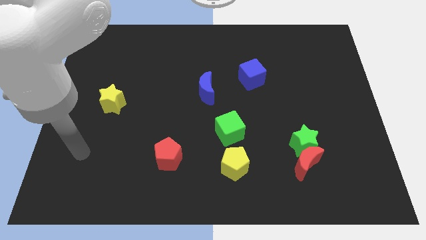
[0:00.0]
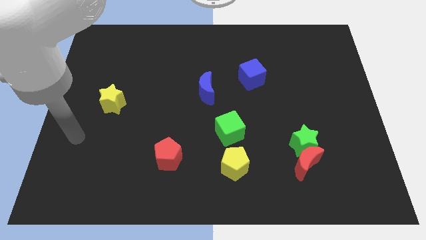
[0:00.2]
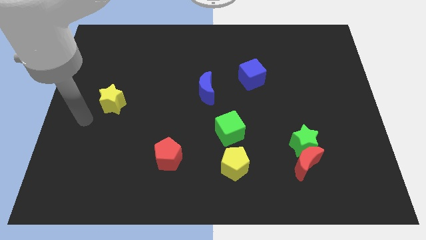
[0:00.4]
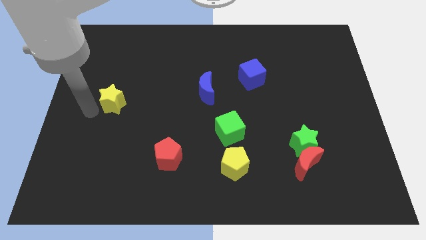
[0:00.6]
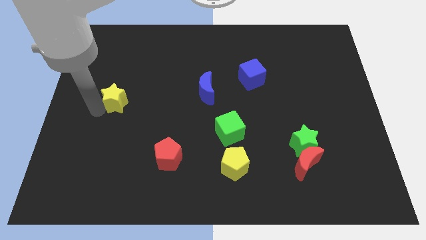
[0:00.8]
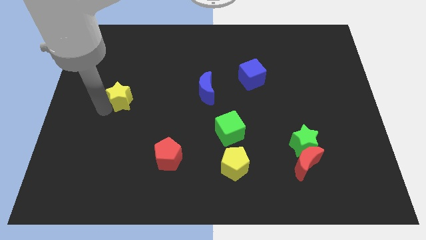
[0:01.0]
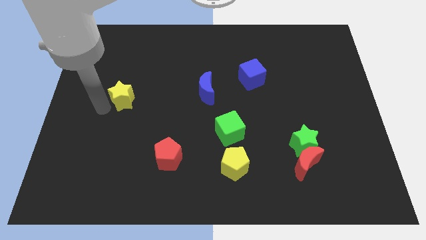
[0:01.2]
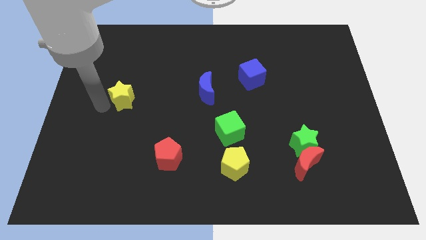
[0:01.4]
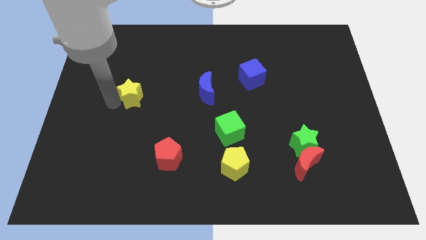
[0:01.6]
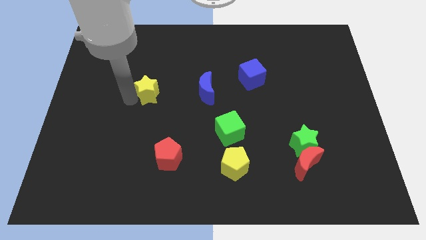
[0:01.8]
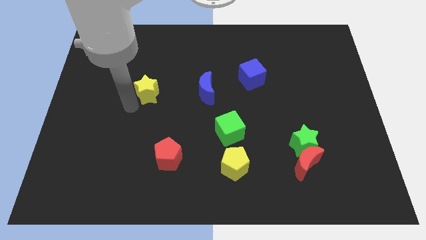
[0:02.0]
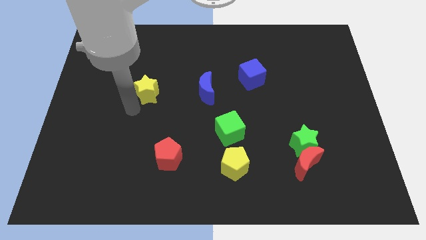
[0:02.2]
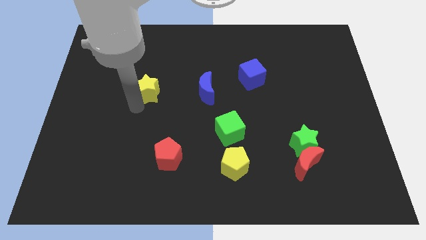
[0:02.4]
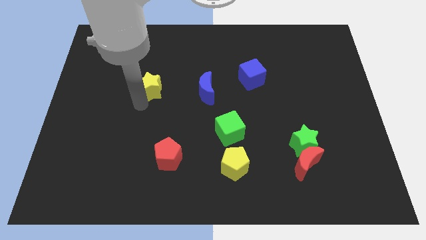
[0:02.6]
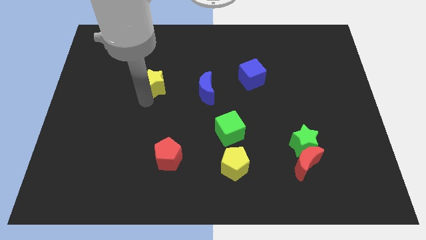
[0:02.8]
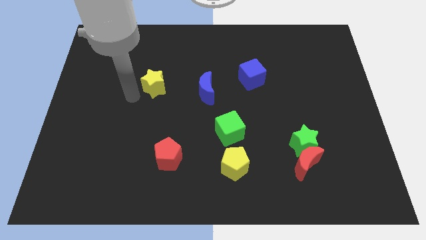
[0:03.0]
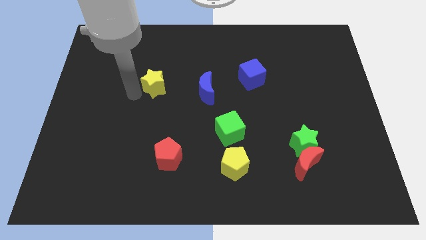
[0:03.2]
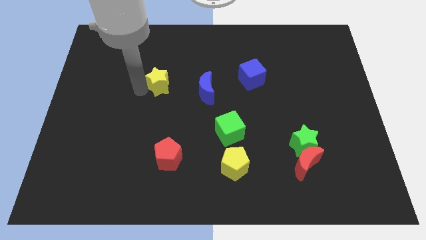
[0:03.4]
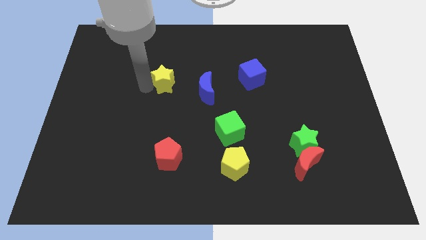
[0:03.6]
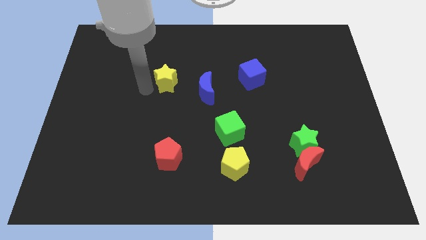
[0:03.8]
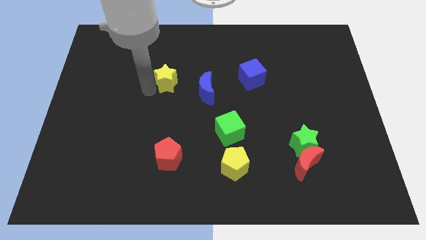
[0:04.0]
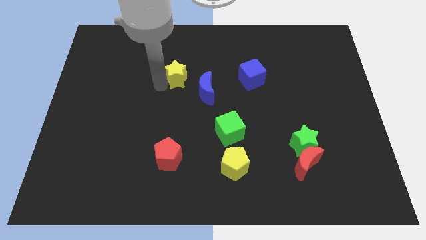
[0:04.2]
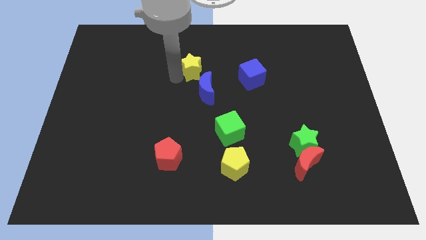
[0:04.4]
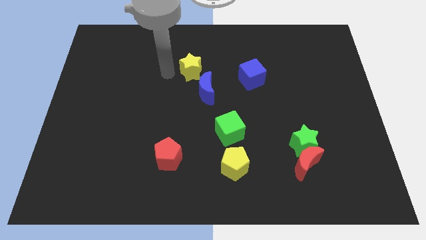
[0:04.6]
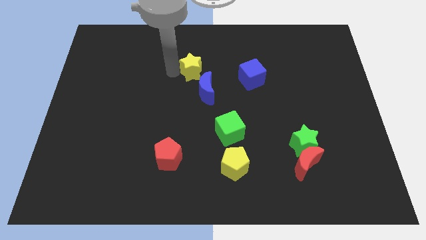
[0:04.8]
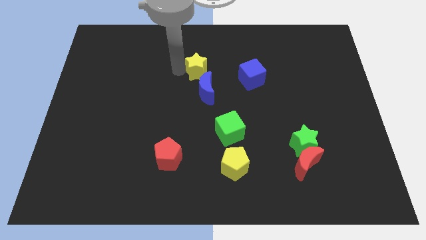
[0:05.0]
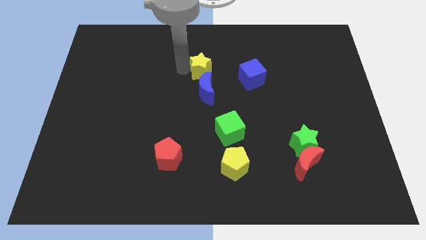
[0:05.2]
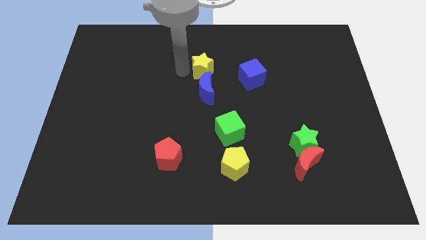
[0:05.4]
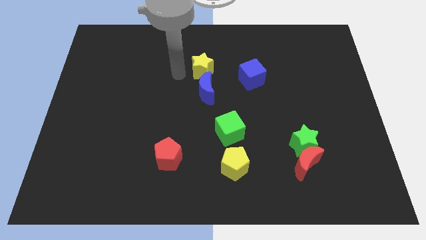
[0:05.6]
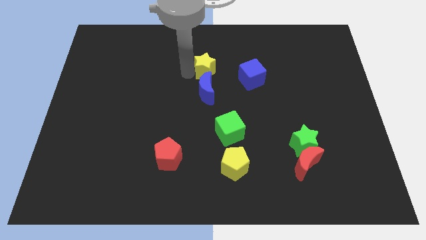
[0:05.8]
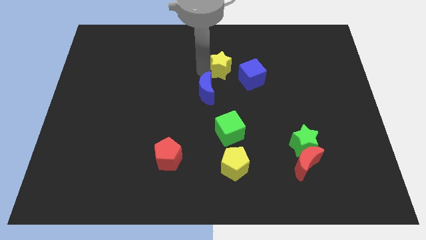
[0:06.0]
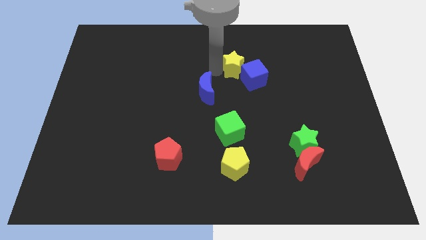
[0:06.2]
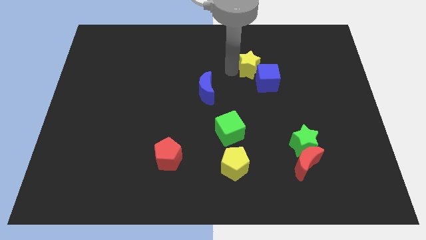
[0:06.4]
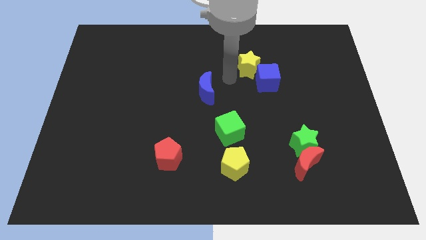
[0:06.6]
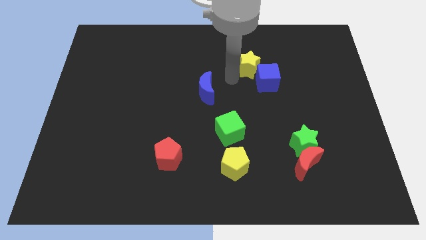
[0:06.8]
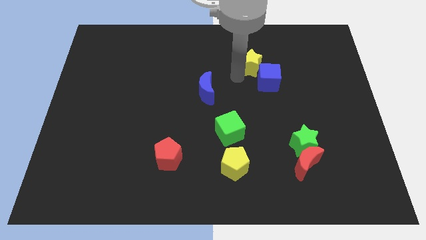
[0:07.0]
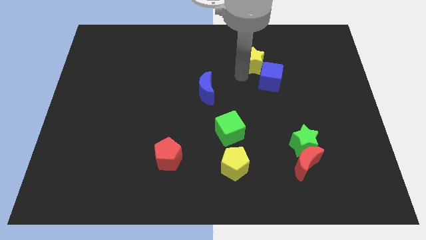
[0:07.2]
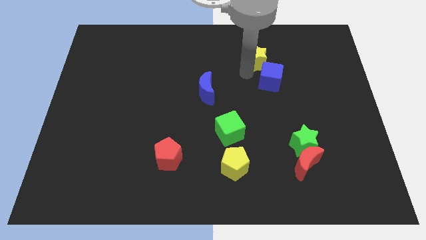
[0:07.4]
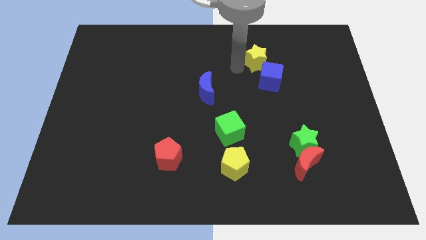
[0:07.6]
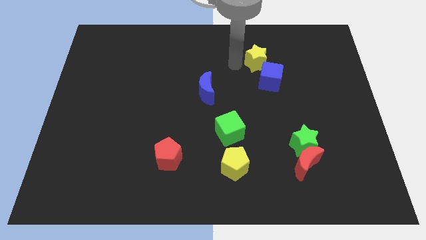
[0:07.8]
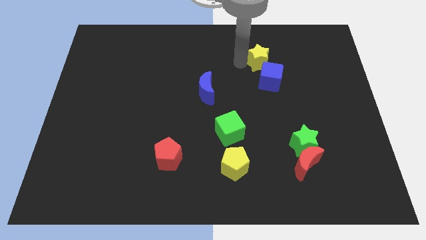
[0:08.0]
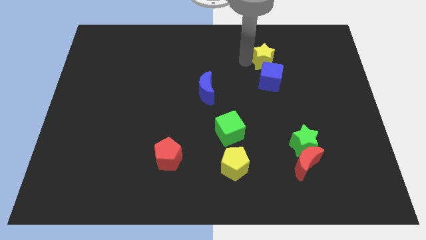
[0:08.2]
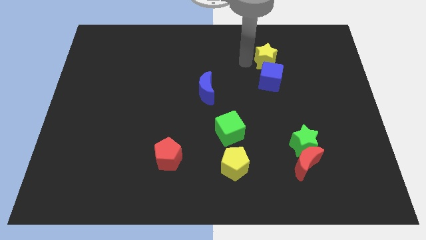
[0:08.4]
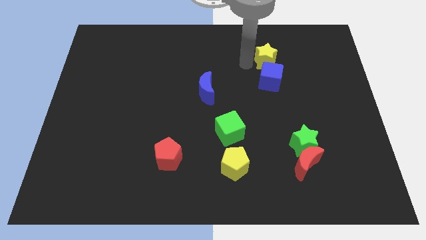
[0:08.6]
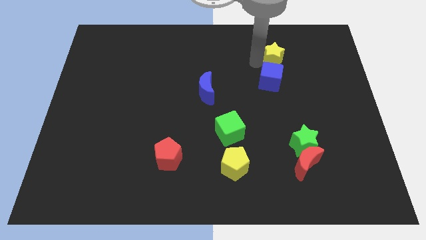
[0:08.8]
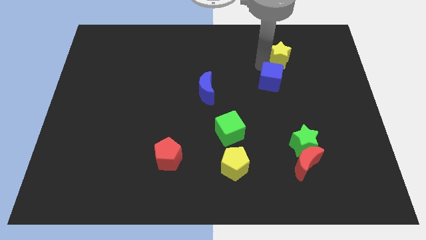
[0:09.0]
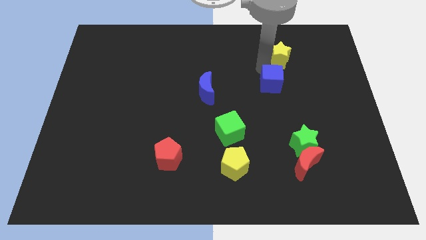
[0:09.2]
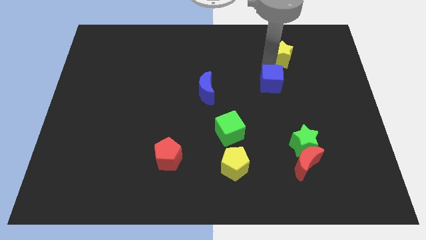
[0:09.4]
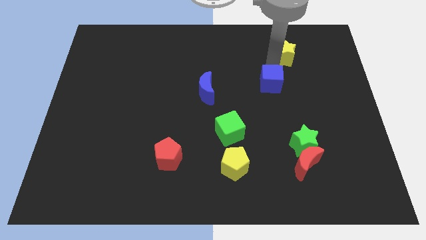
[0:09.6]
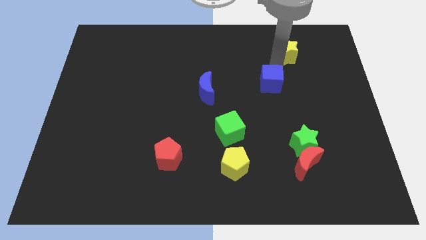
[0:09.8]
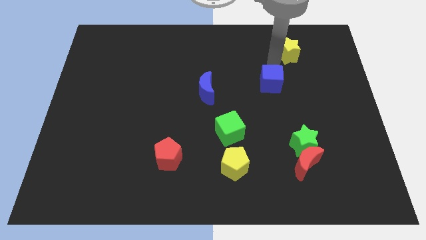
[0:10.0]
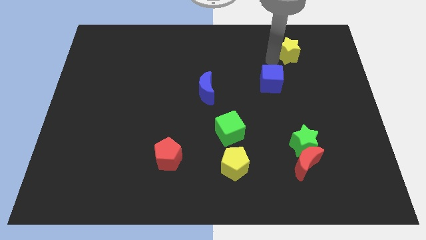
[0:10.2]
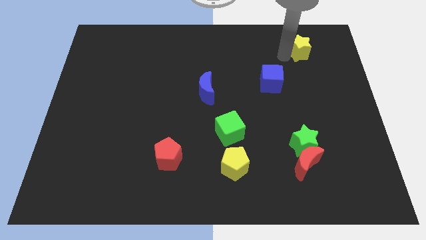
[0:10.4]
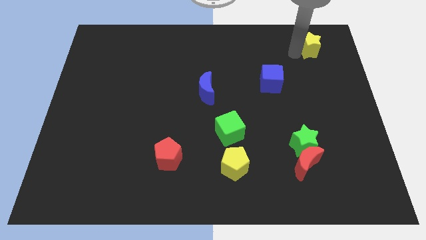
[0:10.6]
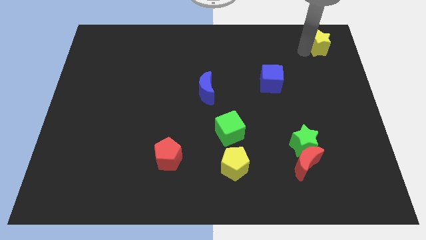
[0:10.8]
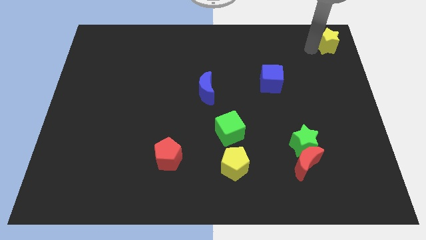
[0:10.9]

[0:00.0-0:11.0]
push the yellow star to the top right of the board
